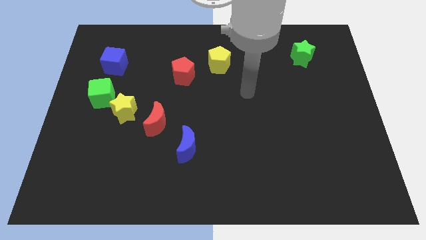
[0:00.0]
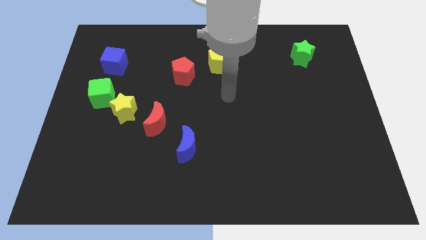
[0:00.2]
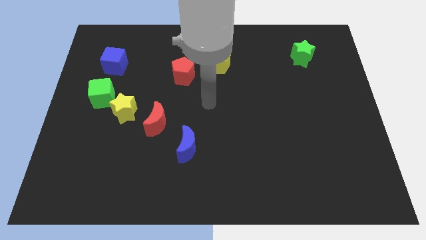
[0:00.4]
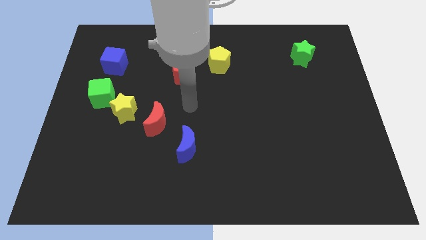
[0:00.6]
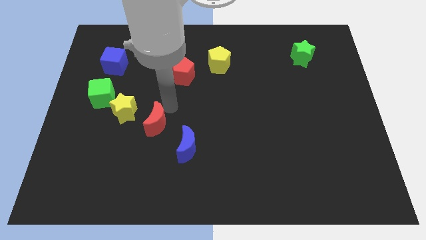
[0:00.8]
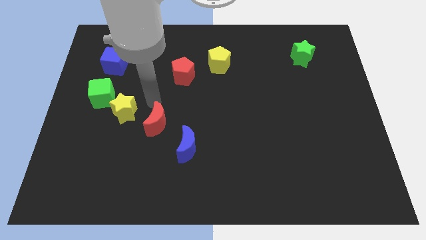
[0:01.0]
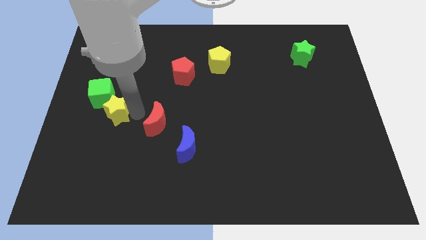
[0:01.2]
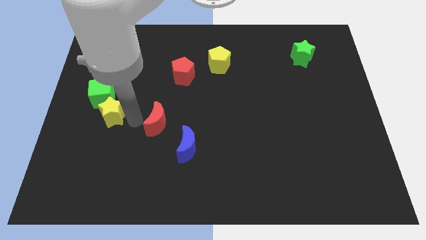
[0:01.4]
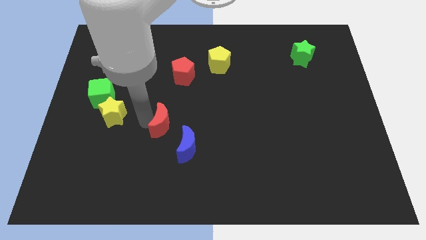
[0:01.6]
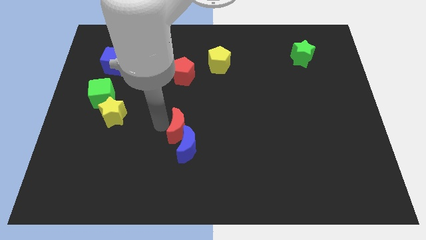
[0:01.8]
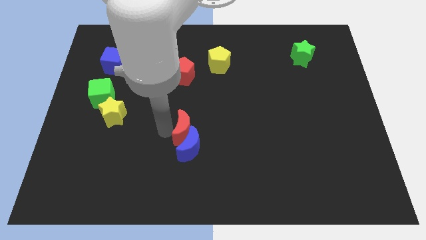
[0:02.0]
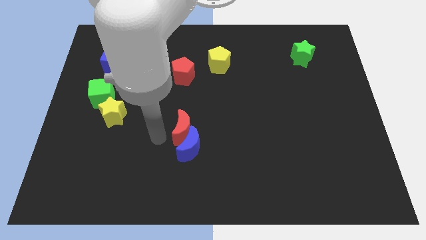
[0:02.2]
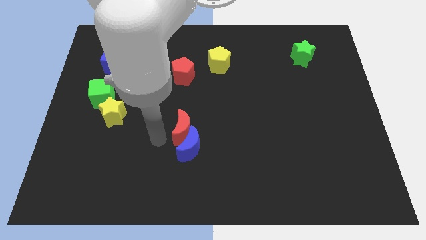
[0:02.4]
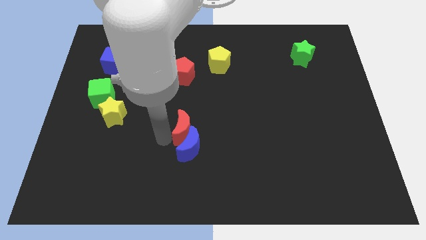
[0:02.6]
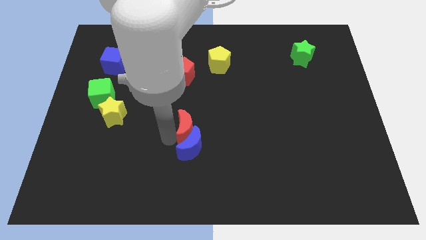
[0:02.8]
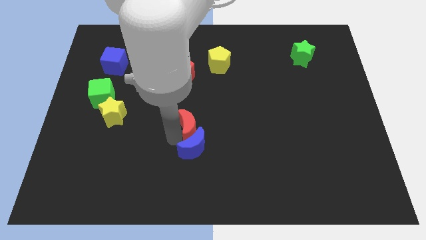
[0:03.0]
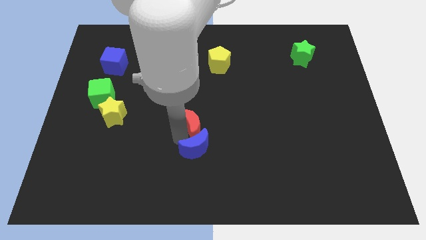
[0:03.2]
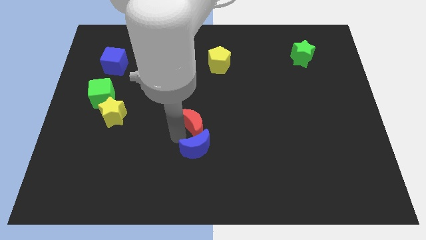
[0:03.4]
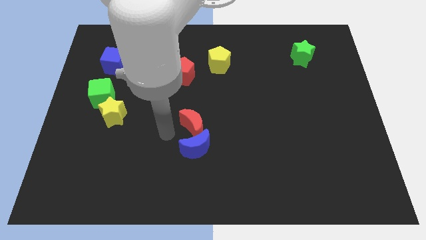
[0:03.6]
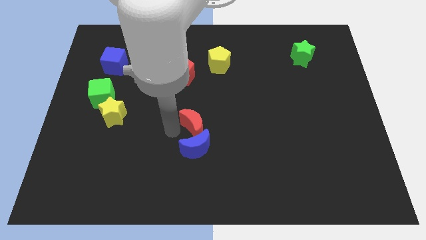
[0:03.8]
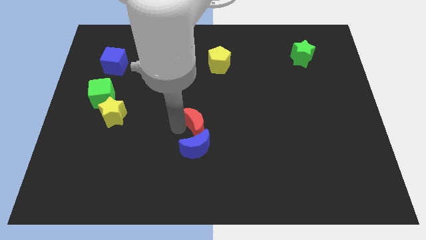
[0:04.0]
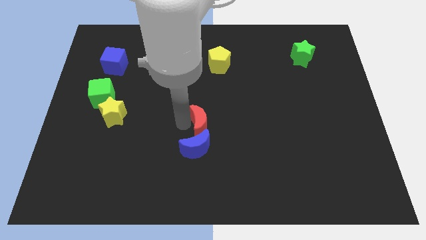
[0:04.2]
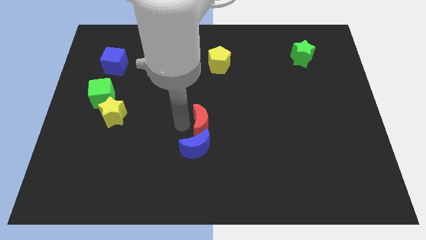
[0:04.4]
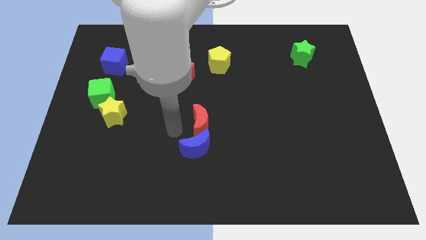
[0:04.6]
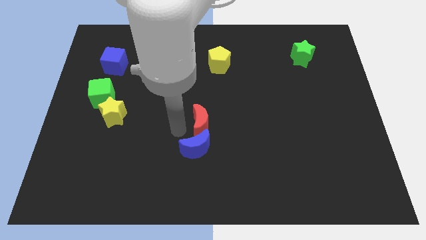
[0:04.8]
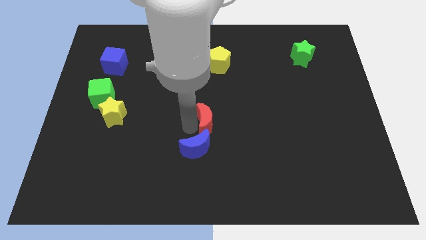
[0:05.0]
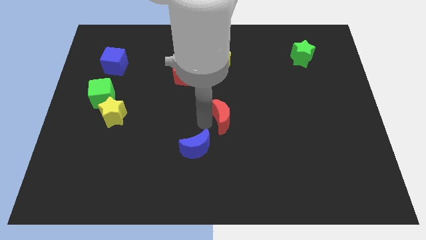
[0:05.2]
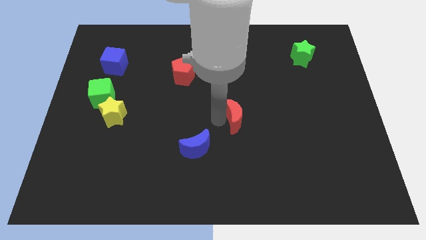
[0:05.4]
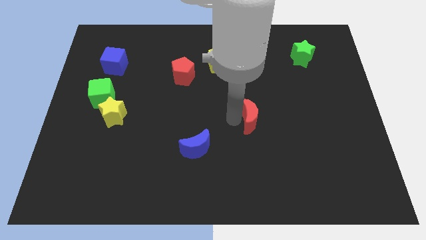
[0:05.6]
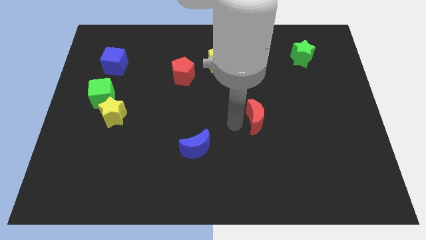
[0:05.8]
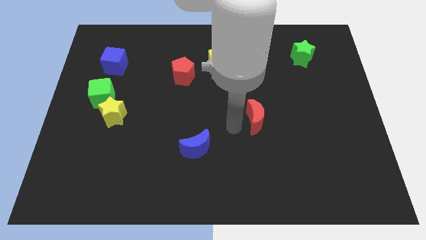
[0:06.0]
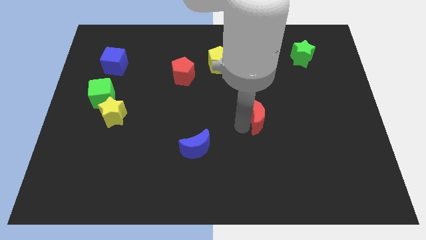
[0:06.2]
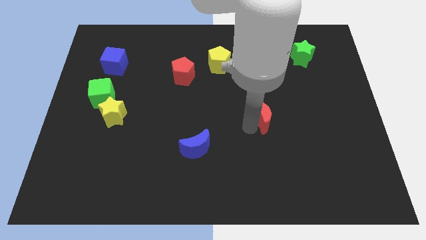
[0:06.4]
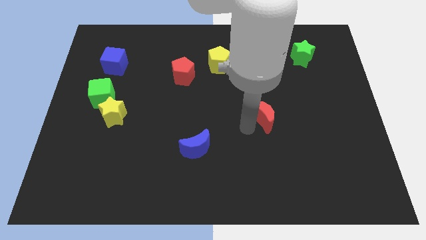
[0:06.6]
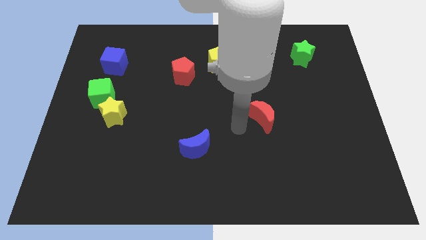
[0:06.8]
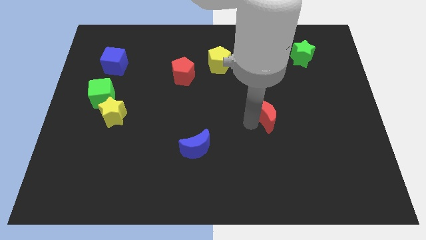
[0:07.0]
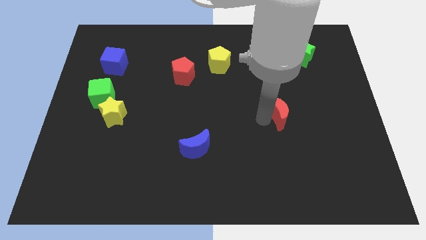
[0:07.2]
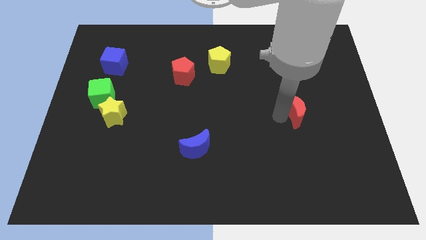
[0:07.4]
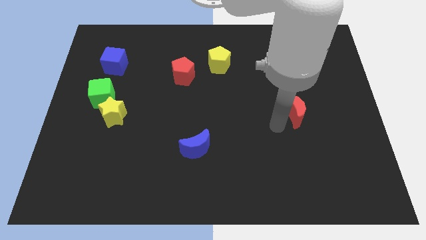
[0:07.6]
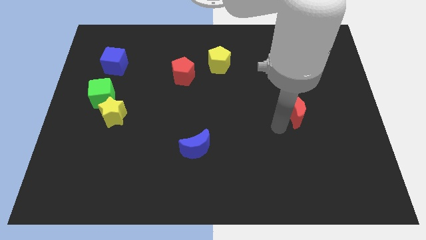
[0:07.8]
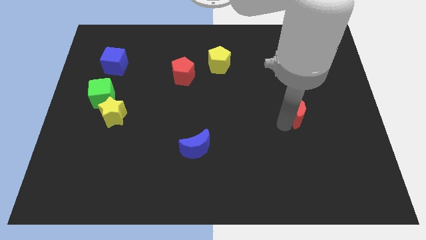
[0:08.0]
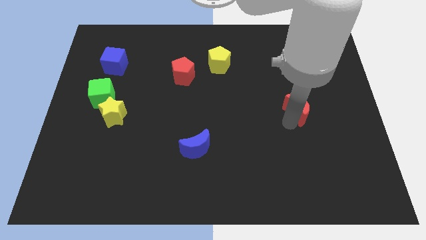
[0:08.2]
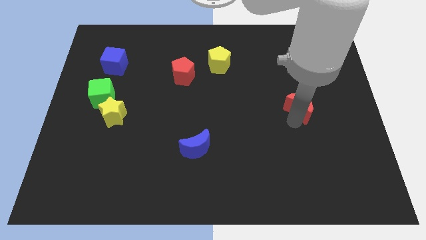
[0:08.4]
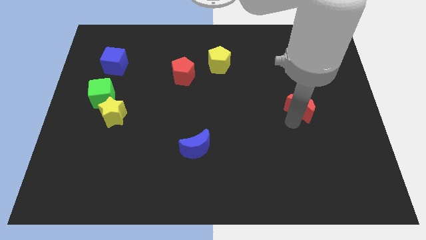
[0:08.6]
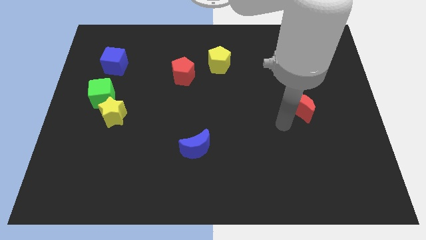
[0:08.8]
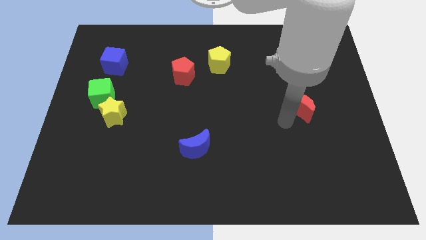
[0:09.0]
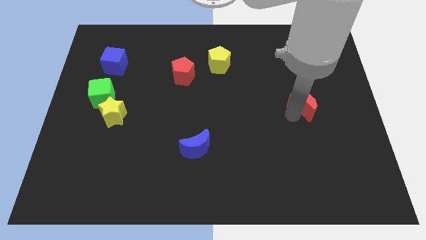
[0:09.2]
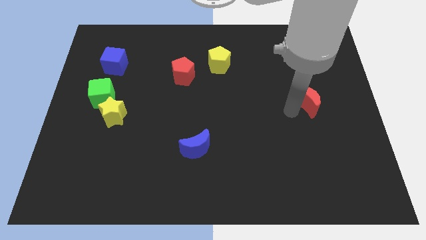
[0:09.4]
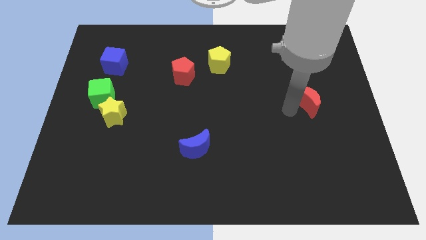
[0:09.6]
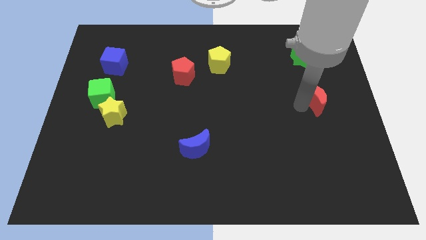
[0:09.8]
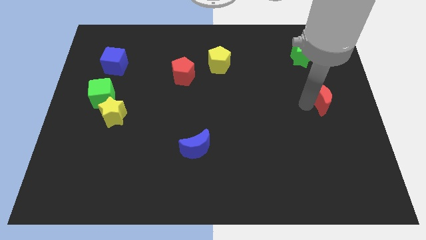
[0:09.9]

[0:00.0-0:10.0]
slide the red moon to the center right
